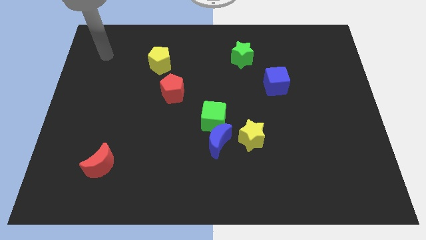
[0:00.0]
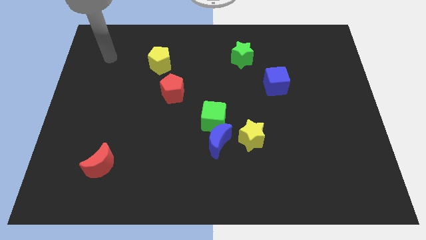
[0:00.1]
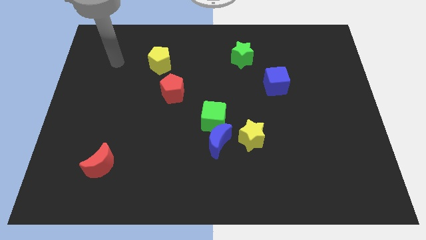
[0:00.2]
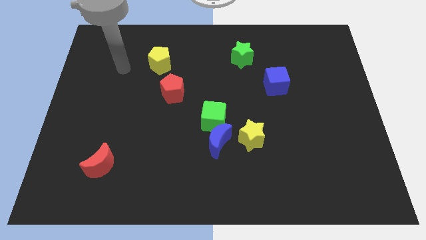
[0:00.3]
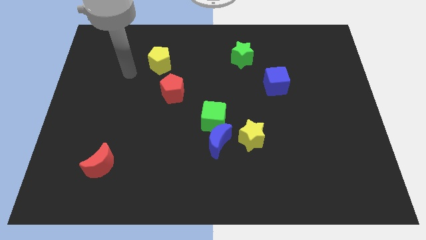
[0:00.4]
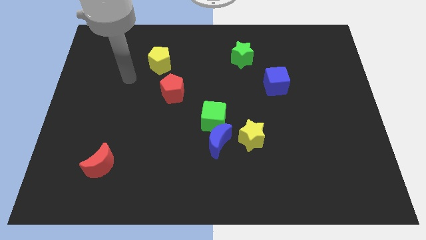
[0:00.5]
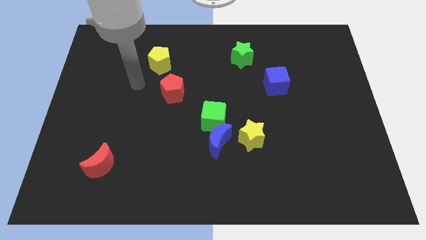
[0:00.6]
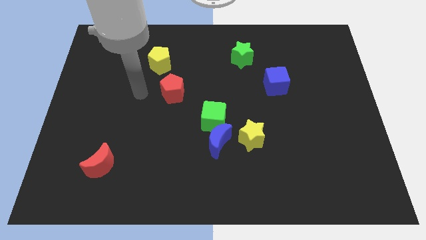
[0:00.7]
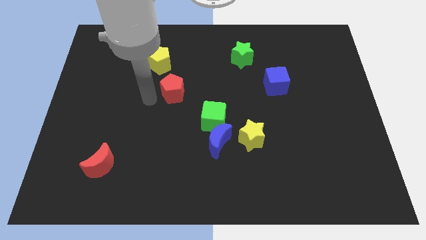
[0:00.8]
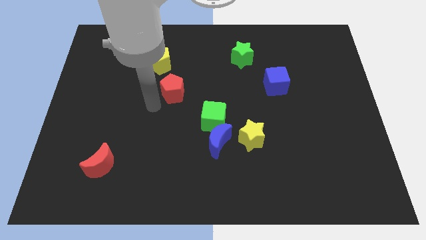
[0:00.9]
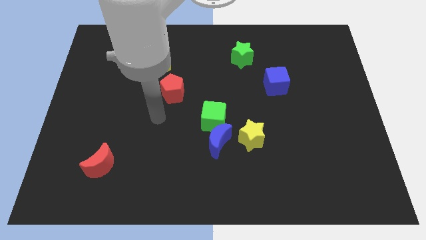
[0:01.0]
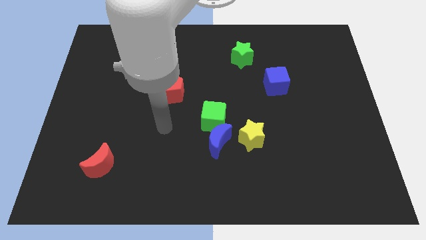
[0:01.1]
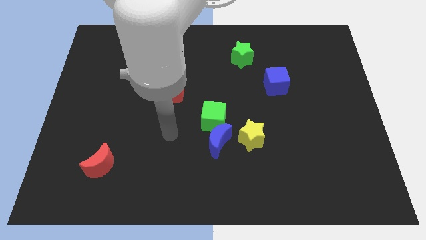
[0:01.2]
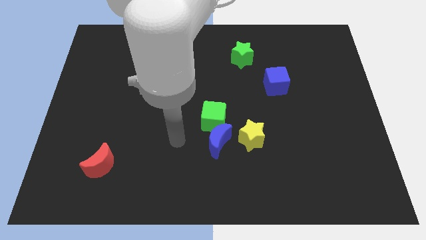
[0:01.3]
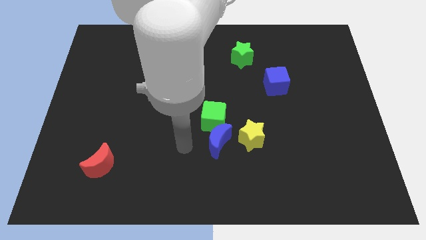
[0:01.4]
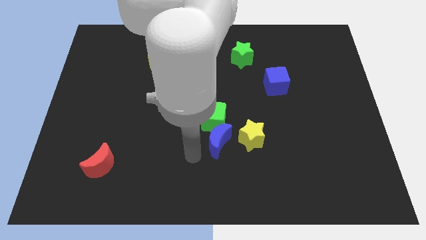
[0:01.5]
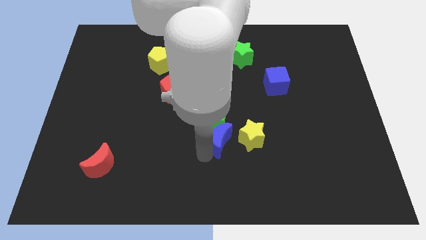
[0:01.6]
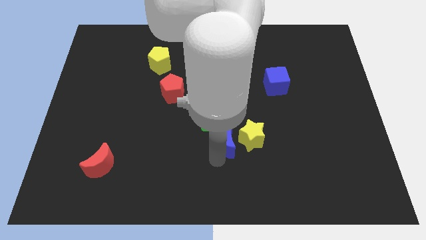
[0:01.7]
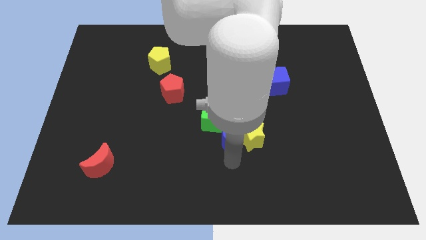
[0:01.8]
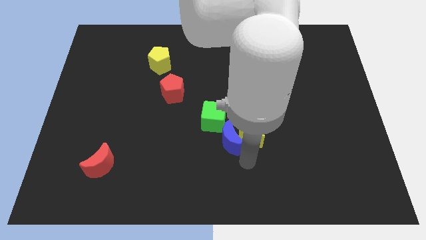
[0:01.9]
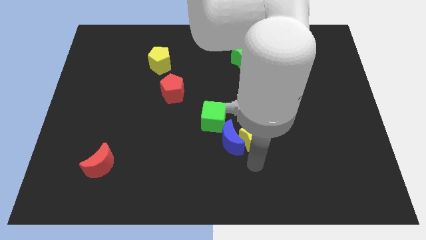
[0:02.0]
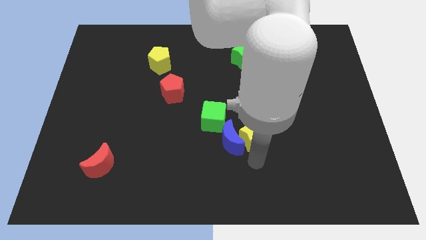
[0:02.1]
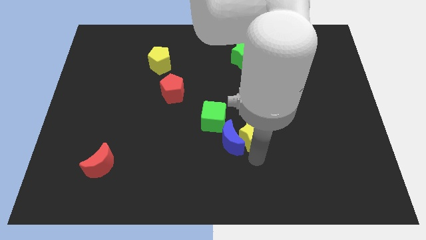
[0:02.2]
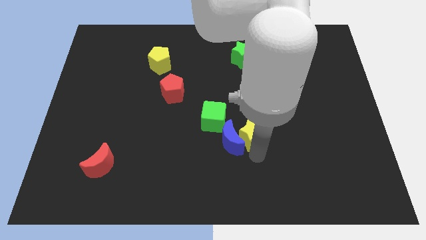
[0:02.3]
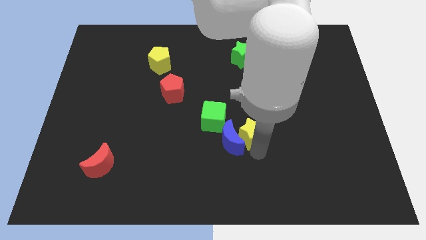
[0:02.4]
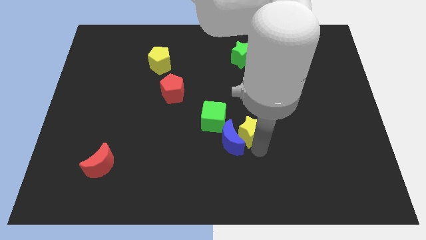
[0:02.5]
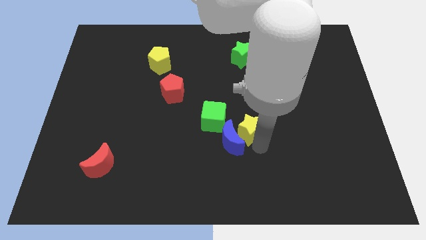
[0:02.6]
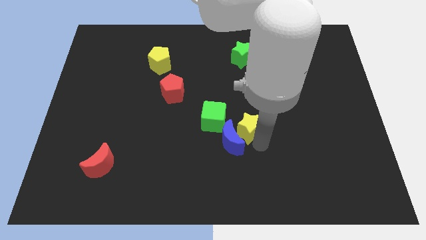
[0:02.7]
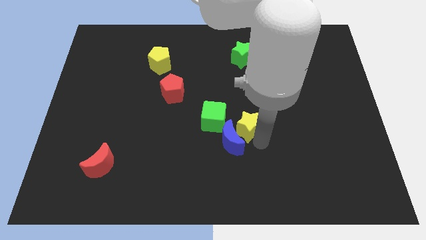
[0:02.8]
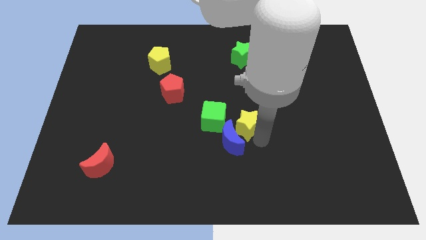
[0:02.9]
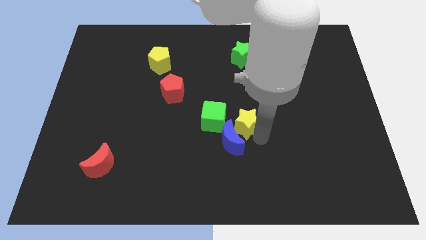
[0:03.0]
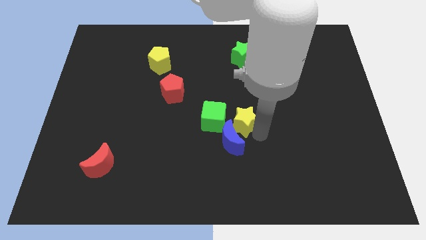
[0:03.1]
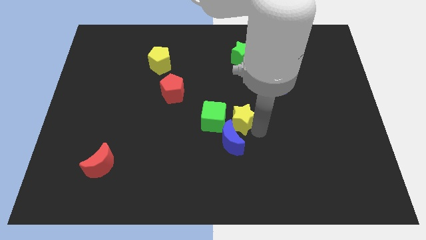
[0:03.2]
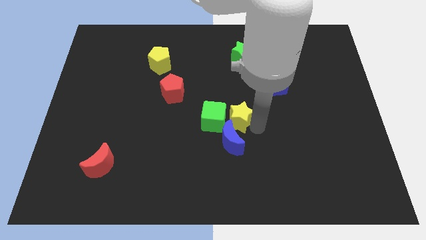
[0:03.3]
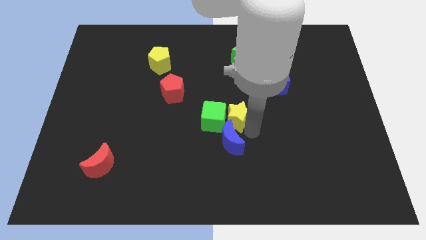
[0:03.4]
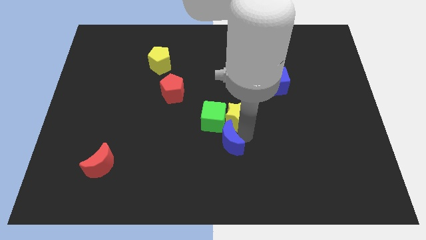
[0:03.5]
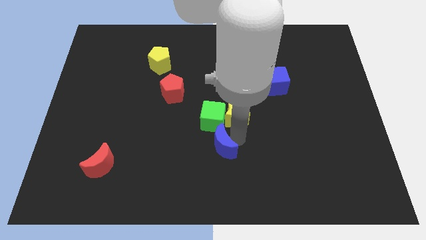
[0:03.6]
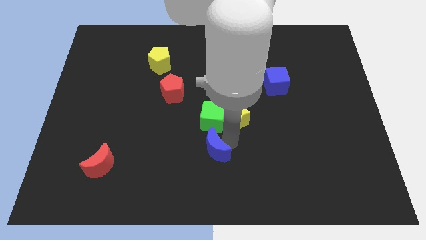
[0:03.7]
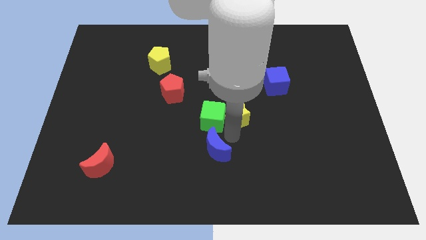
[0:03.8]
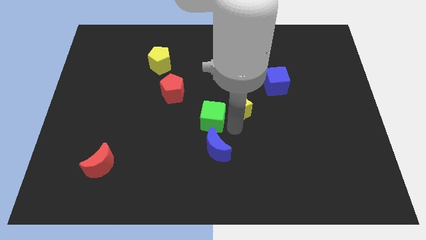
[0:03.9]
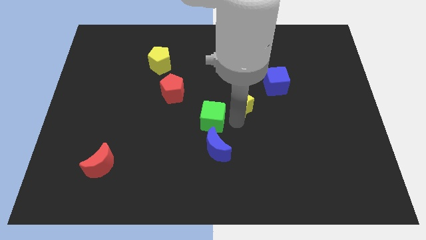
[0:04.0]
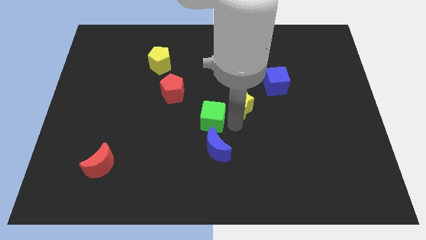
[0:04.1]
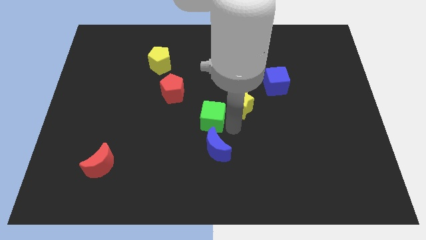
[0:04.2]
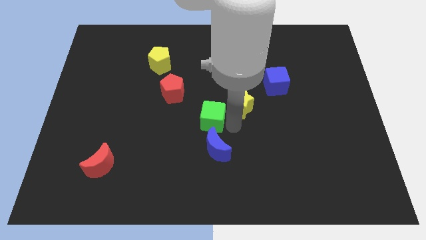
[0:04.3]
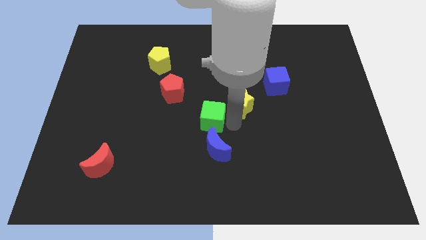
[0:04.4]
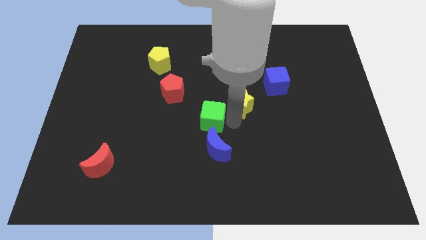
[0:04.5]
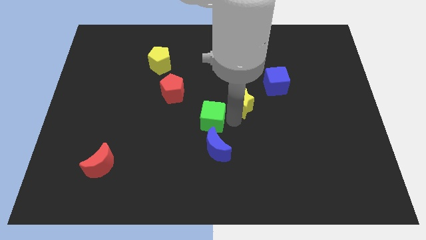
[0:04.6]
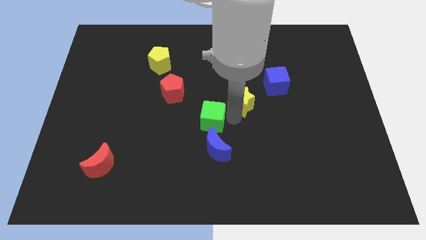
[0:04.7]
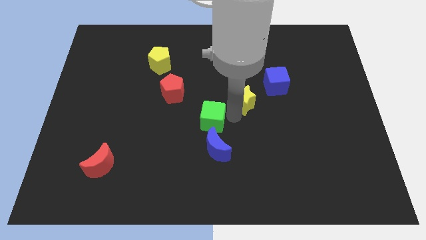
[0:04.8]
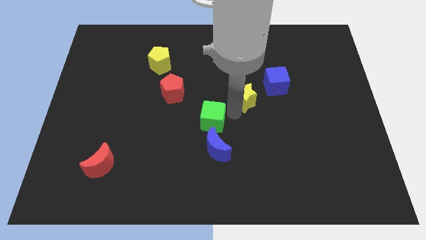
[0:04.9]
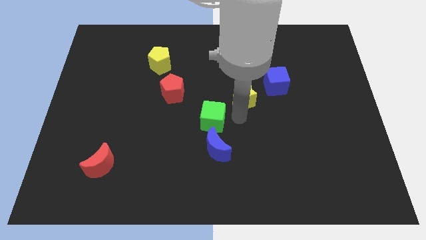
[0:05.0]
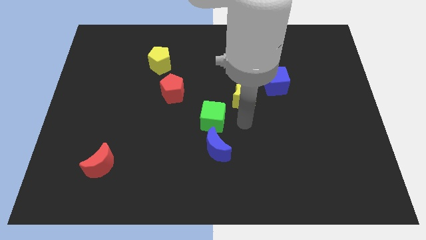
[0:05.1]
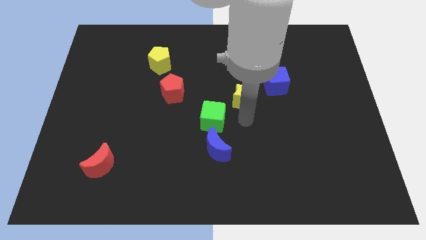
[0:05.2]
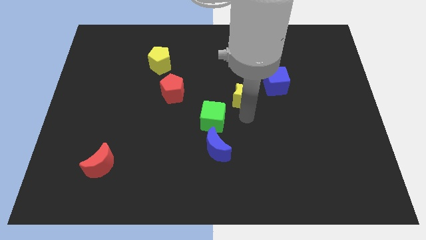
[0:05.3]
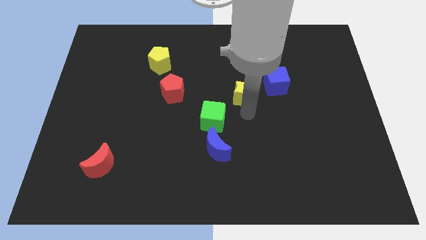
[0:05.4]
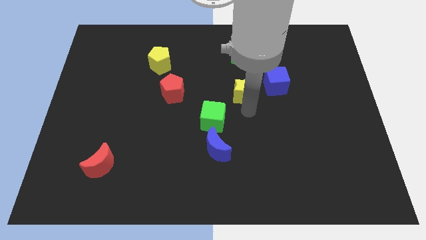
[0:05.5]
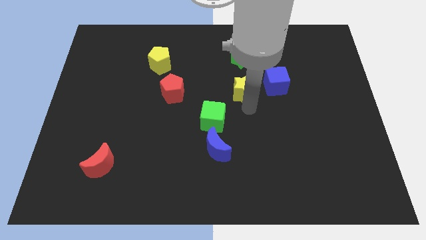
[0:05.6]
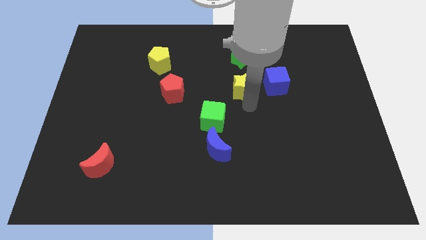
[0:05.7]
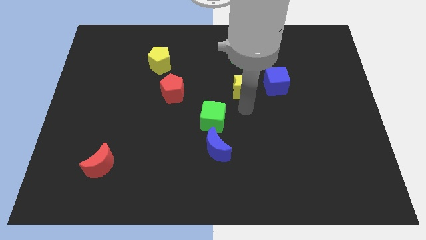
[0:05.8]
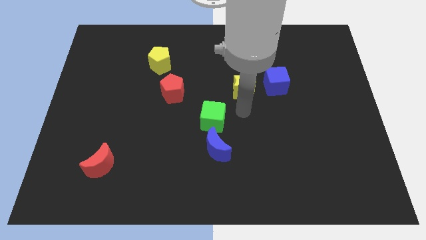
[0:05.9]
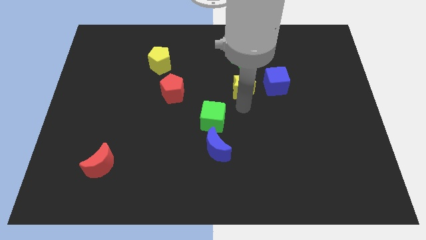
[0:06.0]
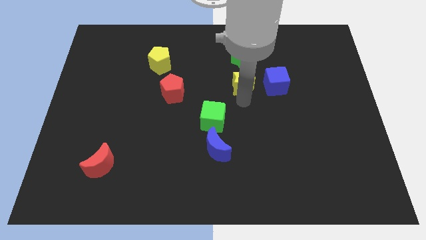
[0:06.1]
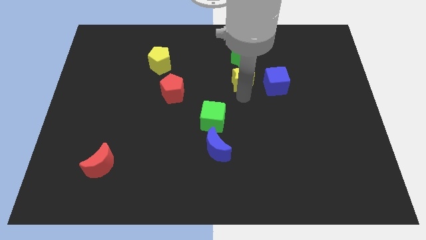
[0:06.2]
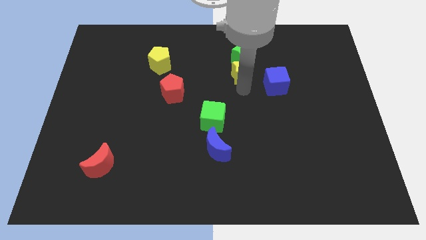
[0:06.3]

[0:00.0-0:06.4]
move the yellow star close to the green star
